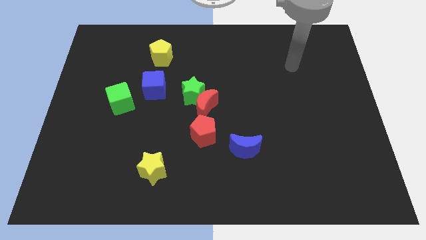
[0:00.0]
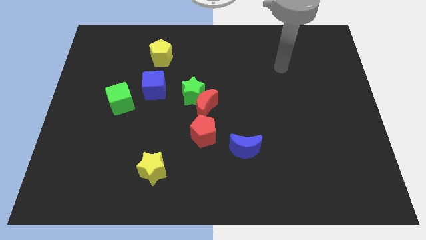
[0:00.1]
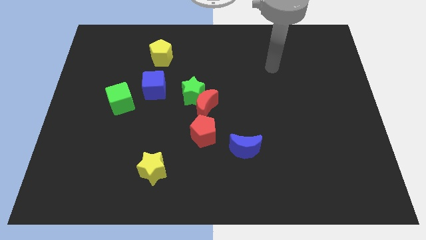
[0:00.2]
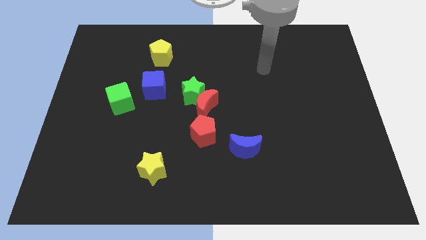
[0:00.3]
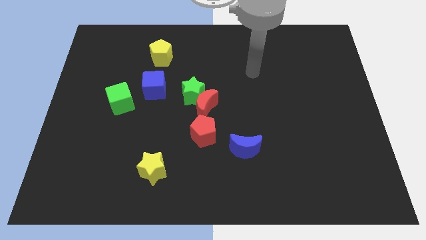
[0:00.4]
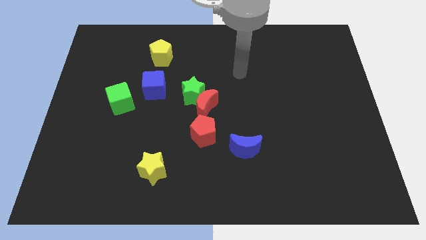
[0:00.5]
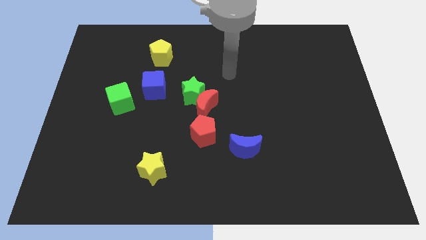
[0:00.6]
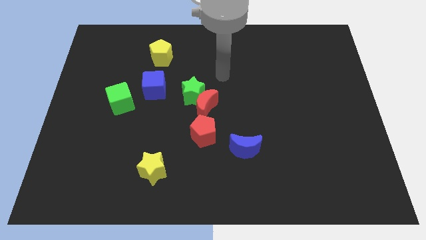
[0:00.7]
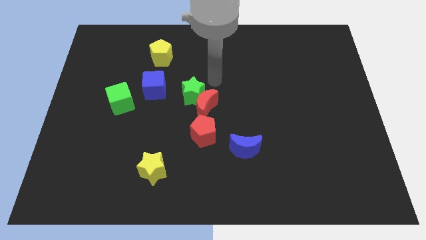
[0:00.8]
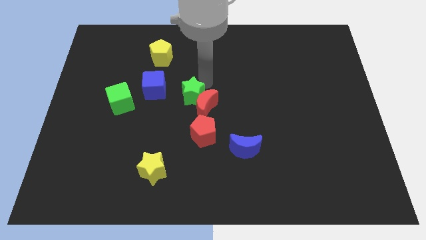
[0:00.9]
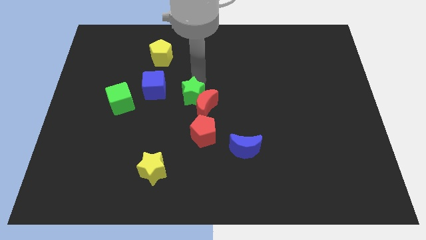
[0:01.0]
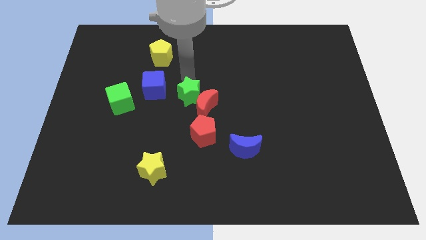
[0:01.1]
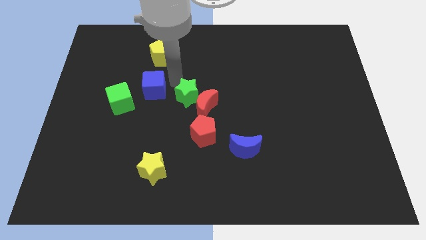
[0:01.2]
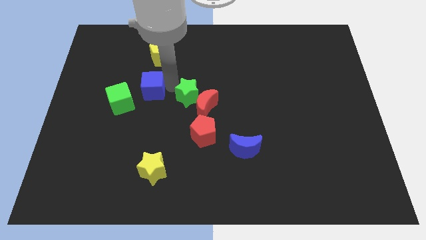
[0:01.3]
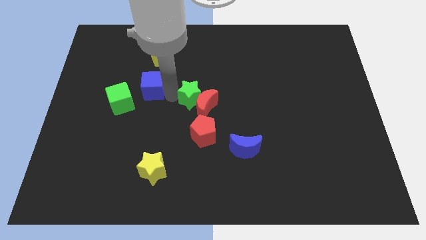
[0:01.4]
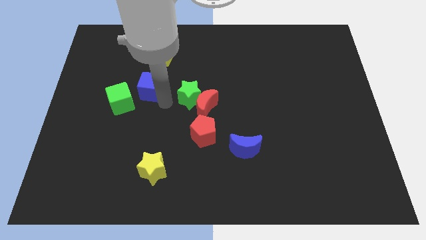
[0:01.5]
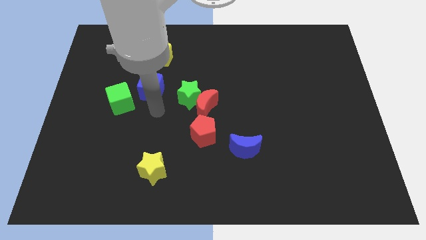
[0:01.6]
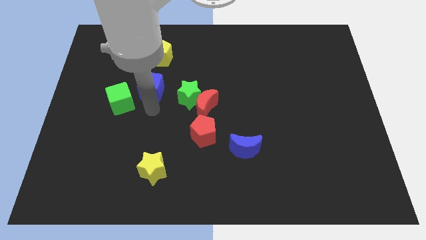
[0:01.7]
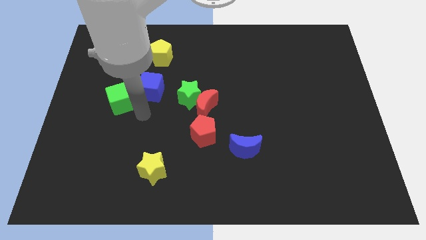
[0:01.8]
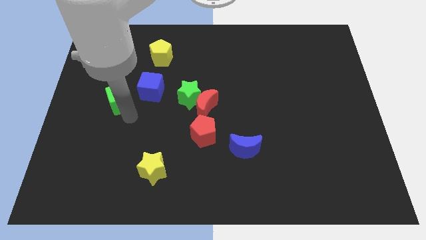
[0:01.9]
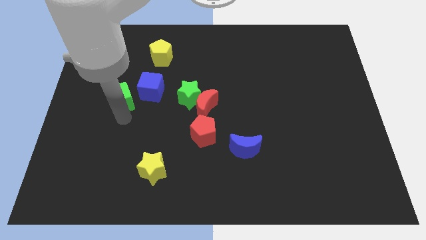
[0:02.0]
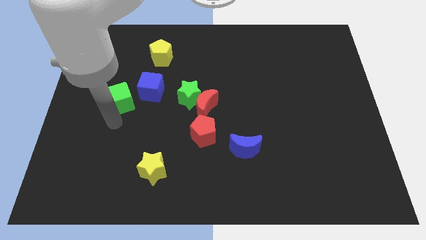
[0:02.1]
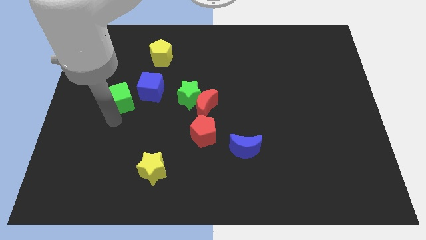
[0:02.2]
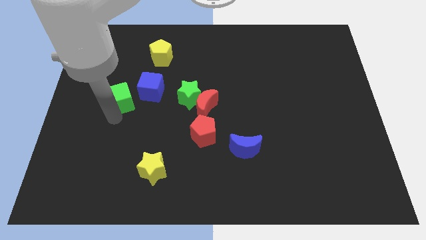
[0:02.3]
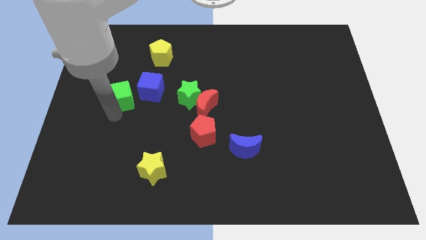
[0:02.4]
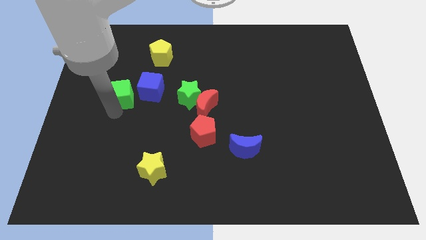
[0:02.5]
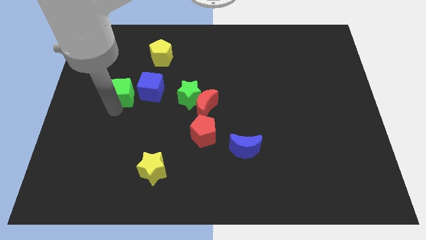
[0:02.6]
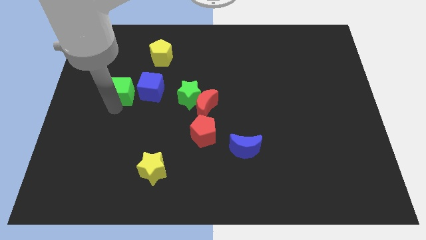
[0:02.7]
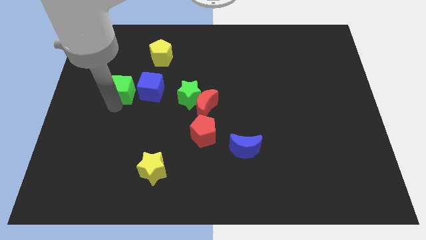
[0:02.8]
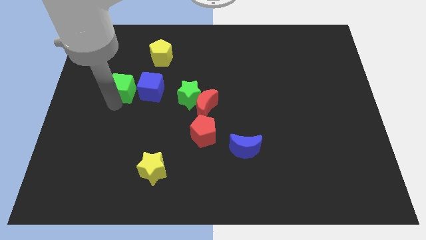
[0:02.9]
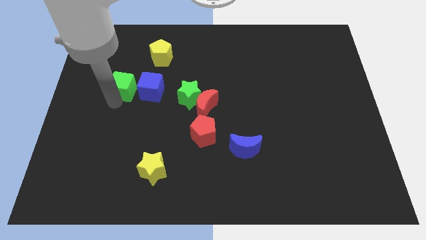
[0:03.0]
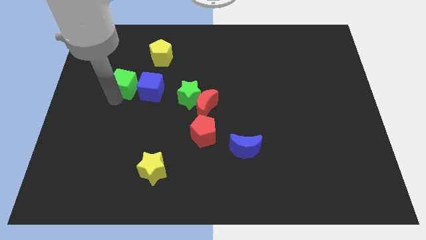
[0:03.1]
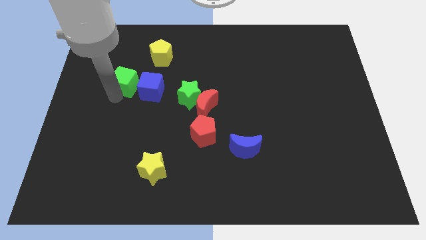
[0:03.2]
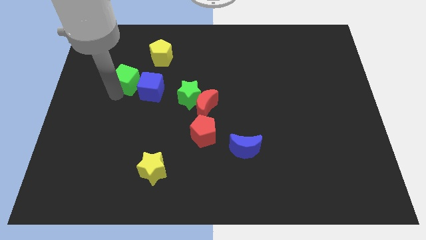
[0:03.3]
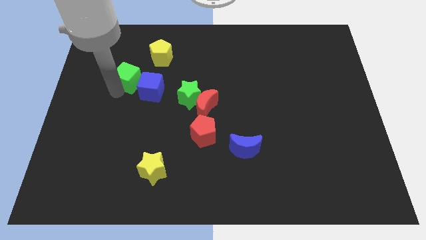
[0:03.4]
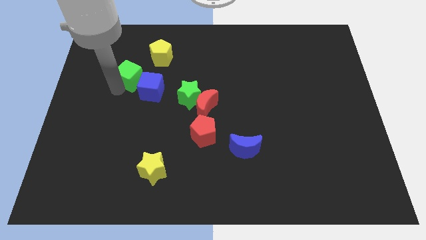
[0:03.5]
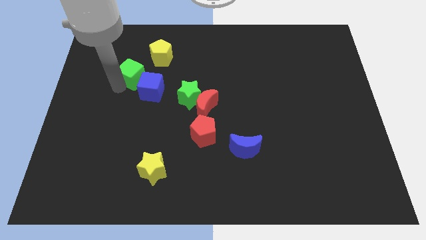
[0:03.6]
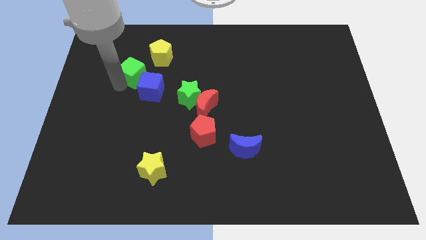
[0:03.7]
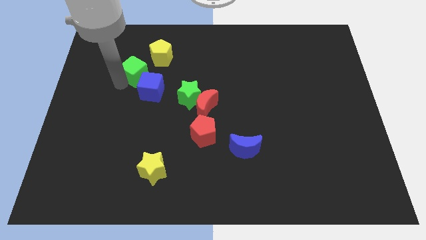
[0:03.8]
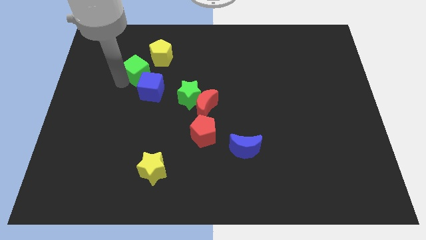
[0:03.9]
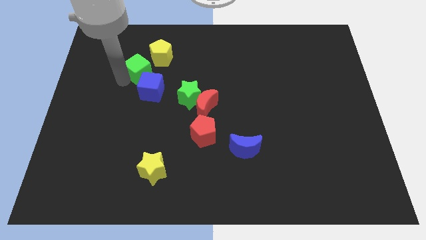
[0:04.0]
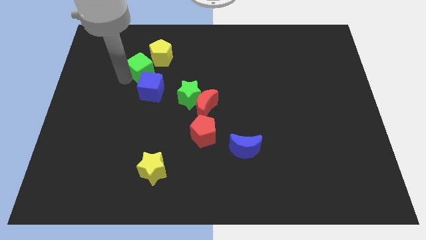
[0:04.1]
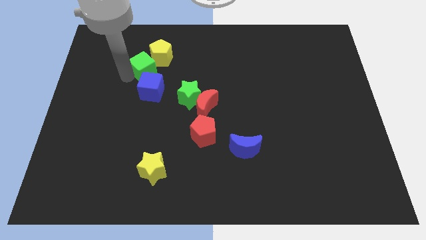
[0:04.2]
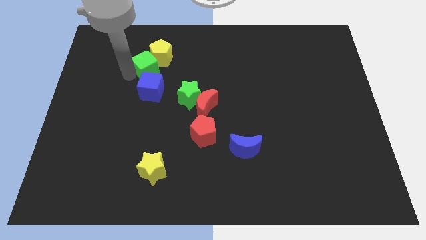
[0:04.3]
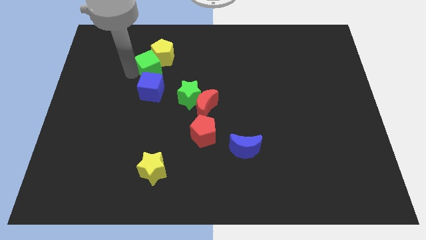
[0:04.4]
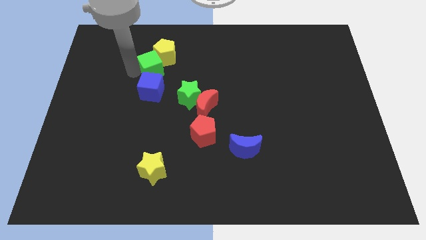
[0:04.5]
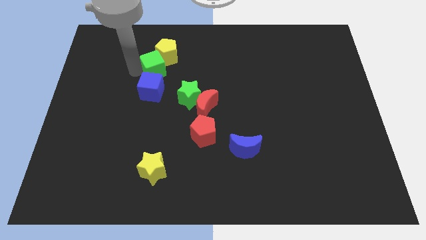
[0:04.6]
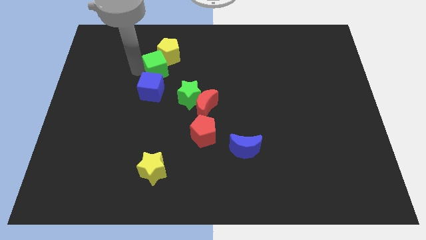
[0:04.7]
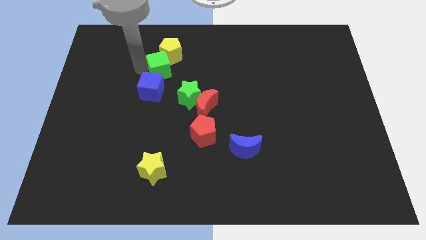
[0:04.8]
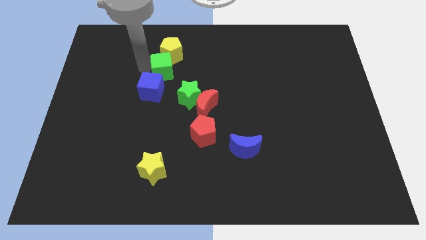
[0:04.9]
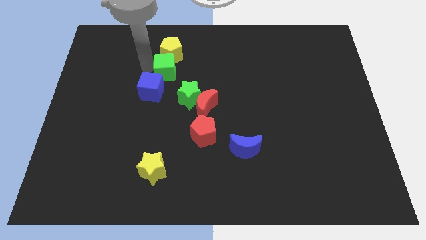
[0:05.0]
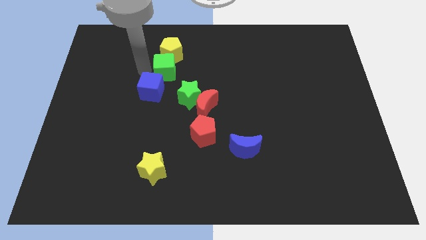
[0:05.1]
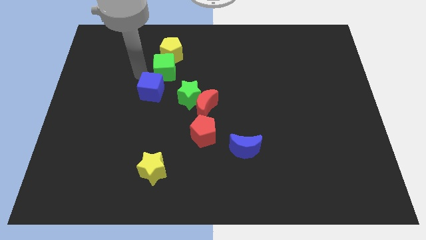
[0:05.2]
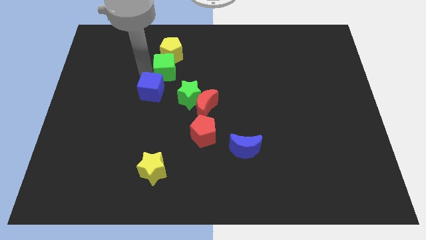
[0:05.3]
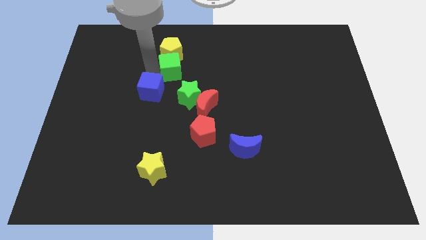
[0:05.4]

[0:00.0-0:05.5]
slide the green cube to the top side of the green star

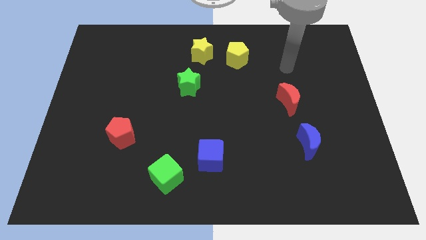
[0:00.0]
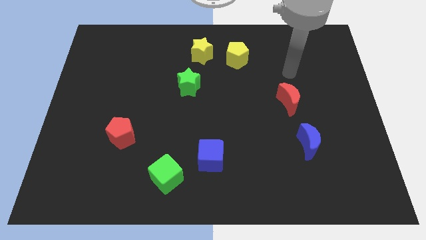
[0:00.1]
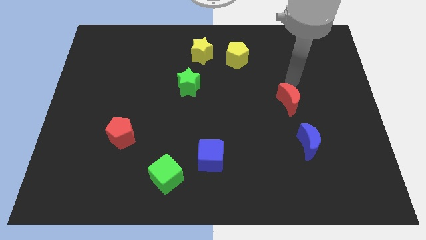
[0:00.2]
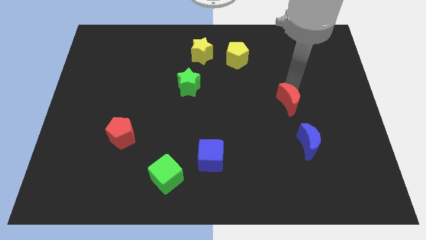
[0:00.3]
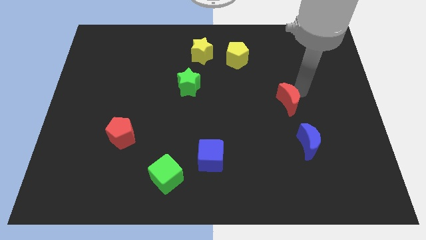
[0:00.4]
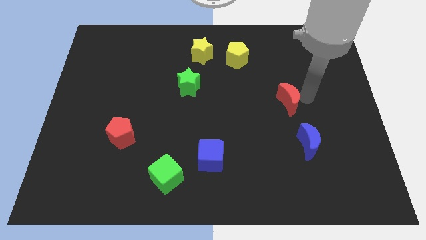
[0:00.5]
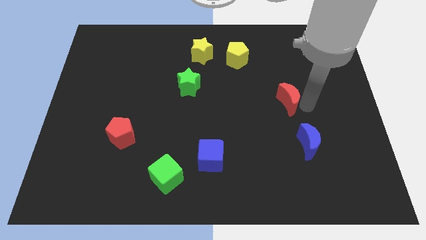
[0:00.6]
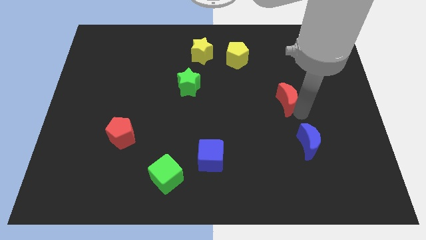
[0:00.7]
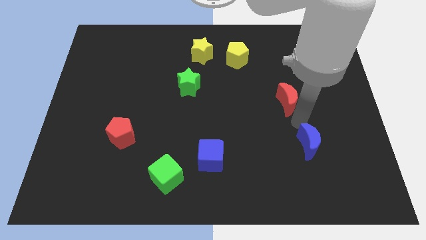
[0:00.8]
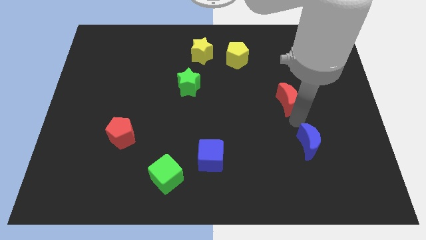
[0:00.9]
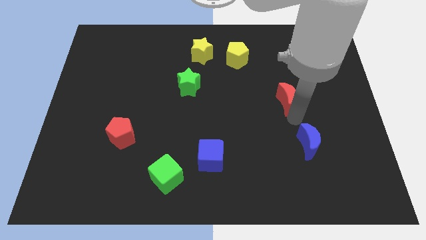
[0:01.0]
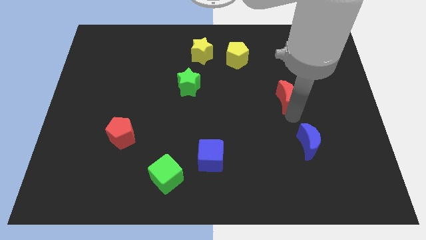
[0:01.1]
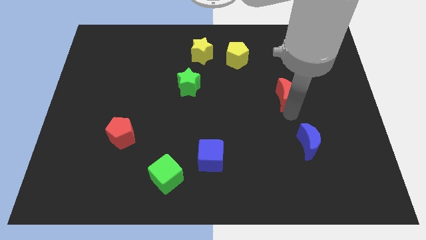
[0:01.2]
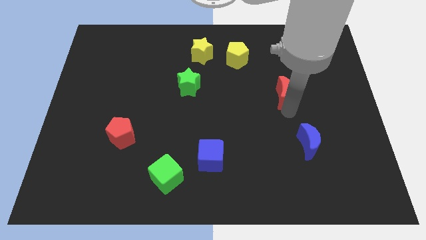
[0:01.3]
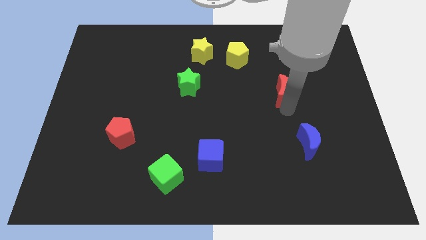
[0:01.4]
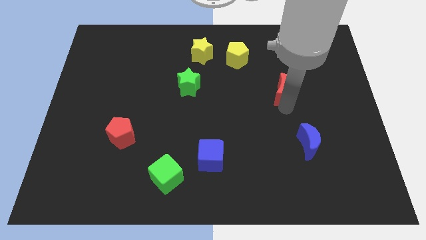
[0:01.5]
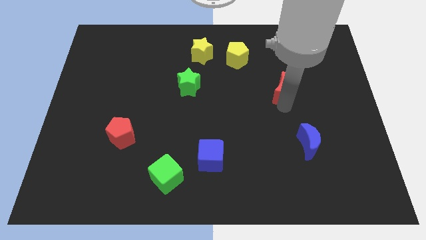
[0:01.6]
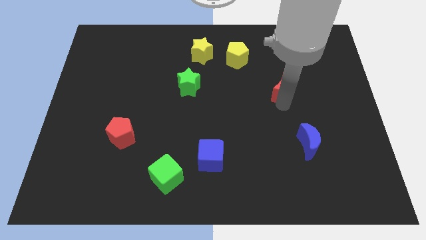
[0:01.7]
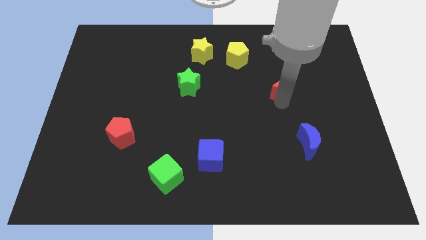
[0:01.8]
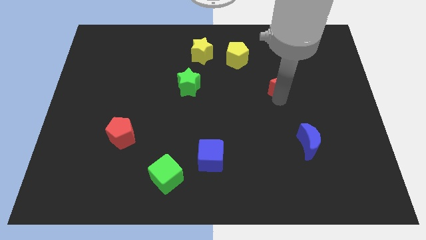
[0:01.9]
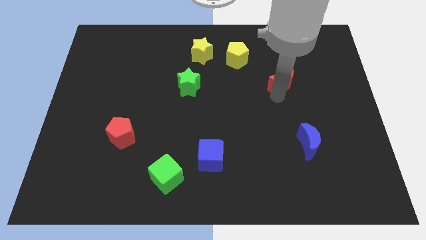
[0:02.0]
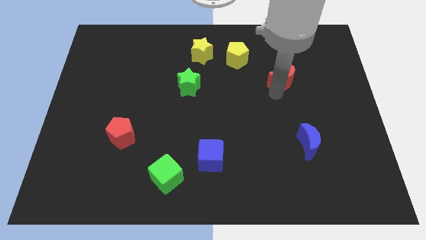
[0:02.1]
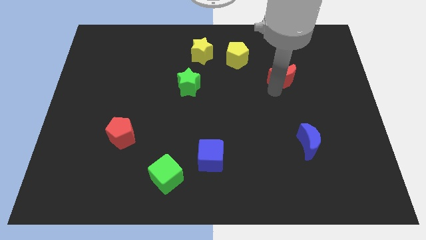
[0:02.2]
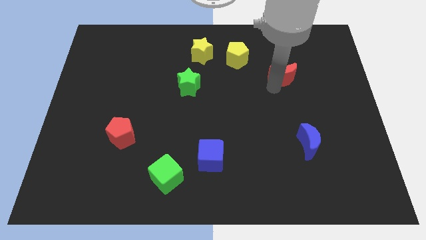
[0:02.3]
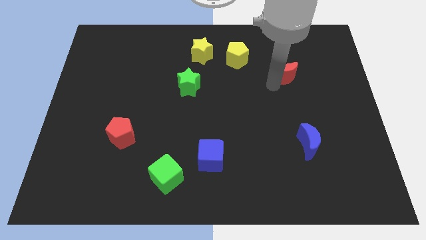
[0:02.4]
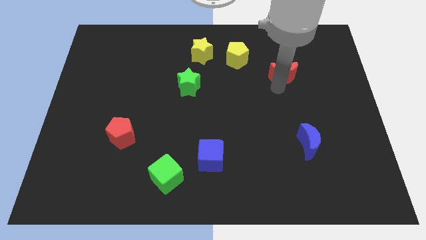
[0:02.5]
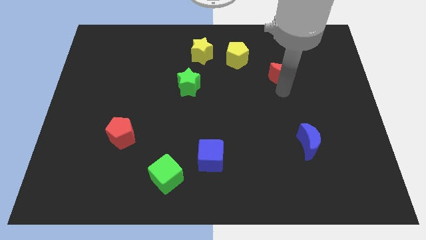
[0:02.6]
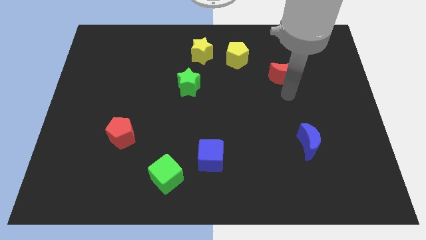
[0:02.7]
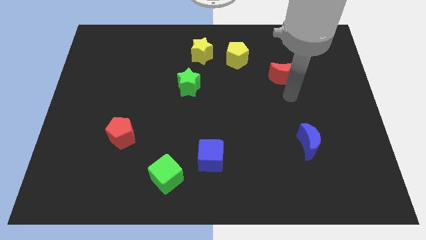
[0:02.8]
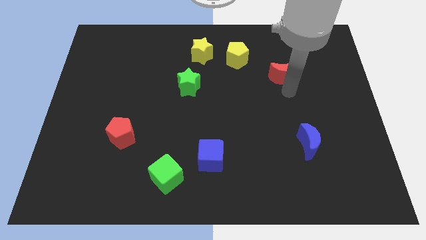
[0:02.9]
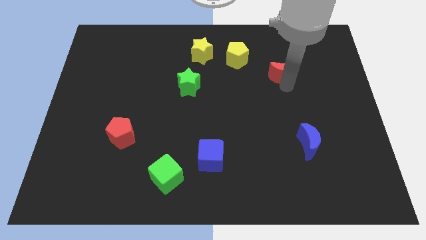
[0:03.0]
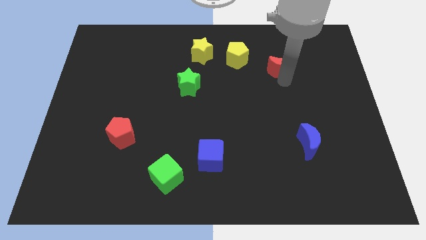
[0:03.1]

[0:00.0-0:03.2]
put the red moon to the right of the yellow pentagon
